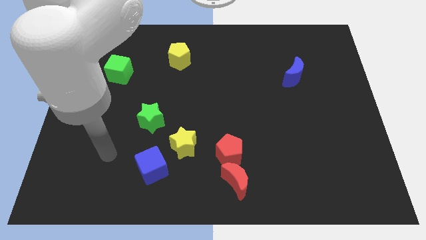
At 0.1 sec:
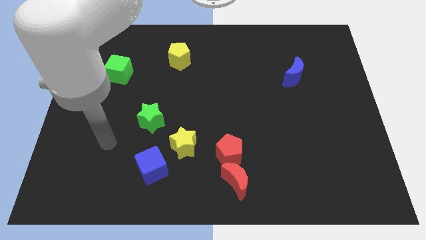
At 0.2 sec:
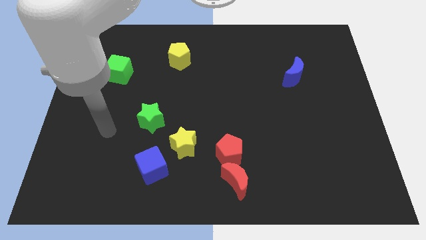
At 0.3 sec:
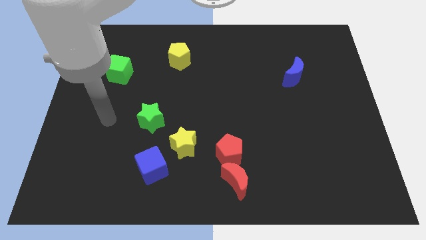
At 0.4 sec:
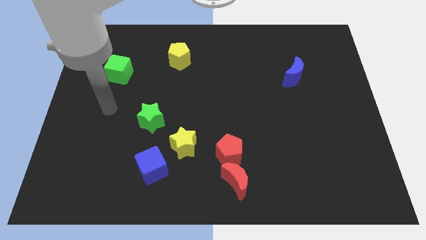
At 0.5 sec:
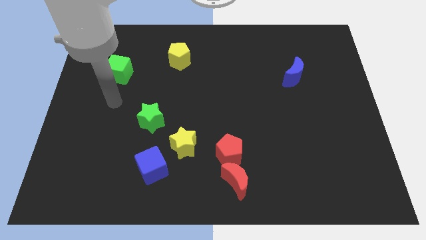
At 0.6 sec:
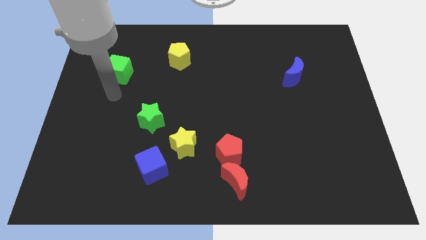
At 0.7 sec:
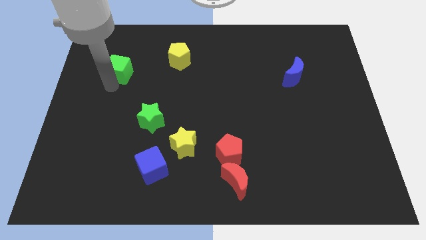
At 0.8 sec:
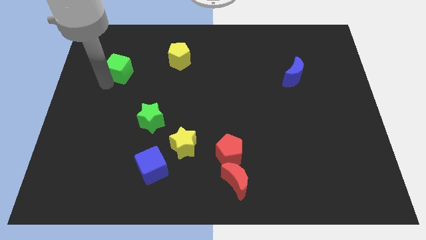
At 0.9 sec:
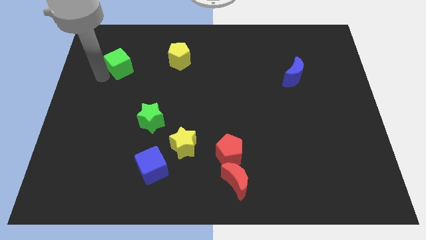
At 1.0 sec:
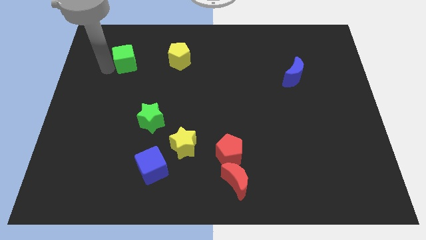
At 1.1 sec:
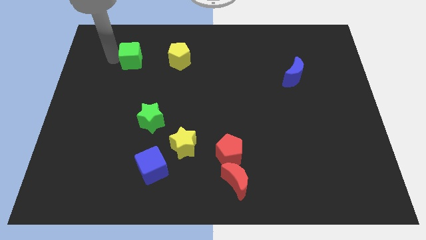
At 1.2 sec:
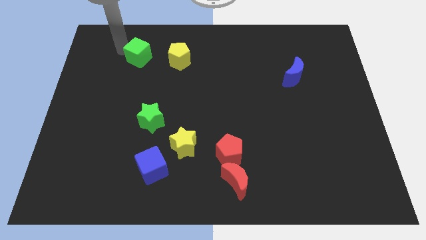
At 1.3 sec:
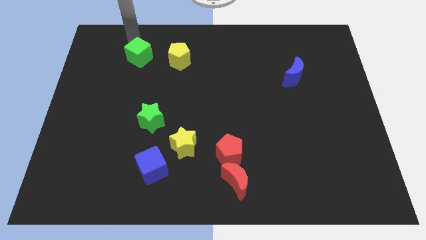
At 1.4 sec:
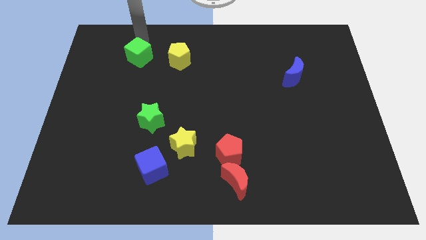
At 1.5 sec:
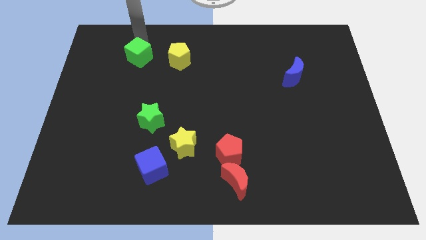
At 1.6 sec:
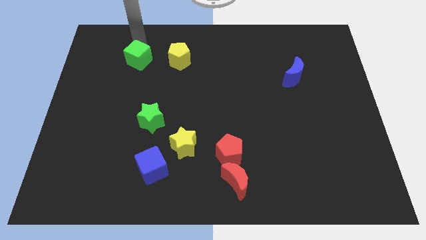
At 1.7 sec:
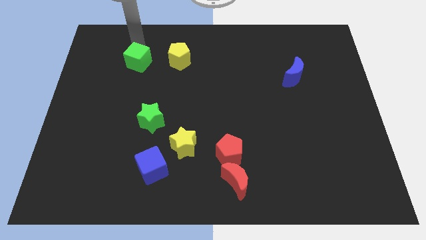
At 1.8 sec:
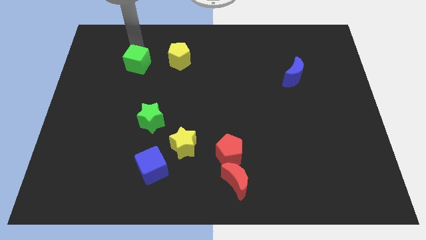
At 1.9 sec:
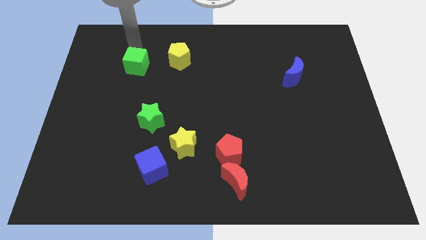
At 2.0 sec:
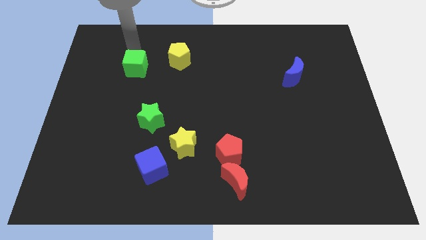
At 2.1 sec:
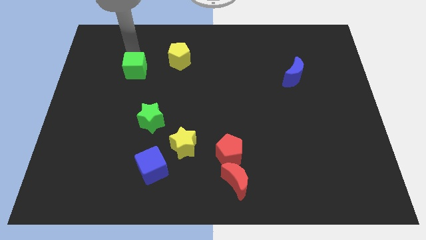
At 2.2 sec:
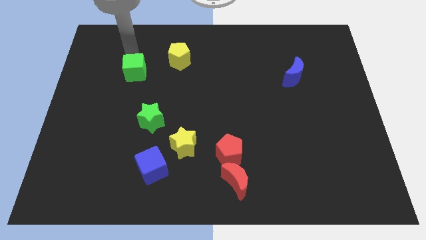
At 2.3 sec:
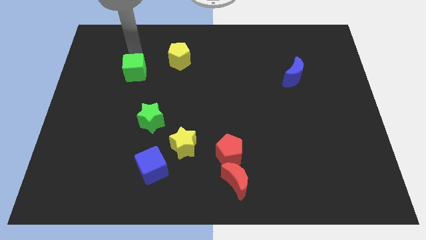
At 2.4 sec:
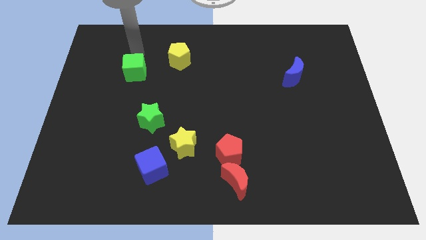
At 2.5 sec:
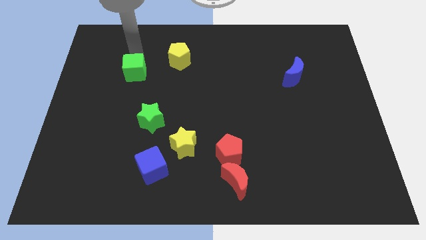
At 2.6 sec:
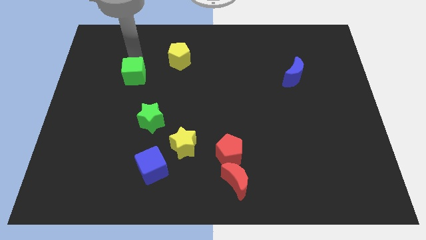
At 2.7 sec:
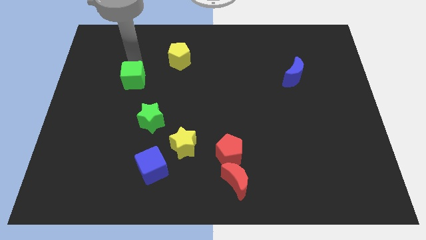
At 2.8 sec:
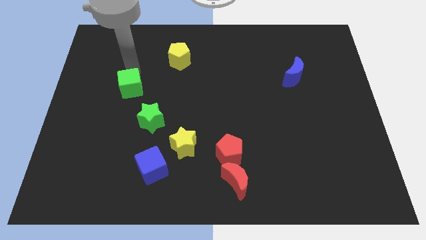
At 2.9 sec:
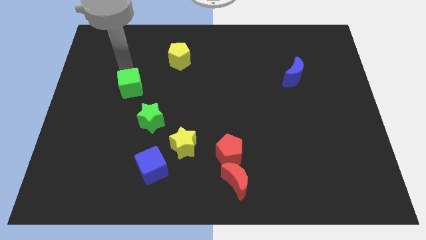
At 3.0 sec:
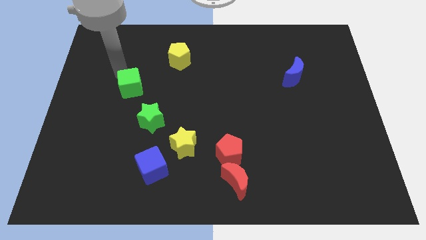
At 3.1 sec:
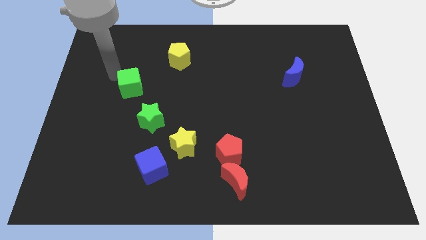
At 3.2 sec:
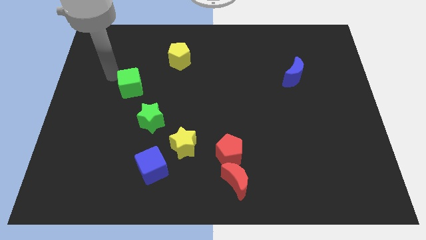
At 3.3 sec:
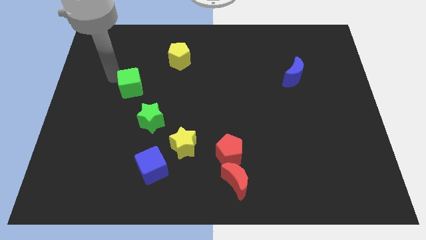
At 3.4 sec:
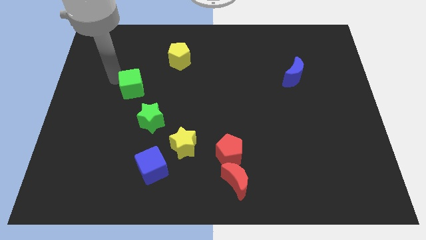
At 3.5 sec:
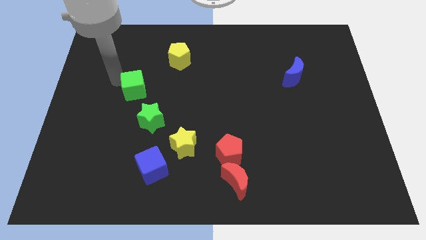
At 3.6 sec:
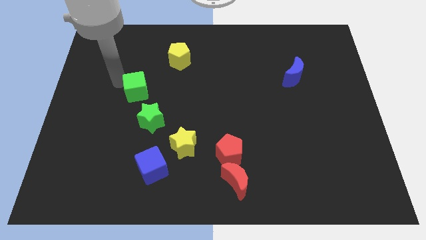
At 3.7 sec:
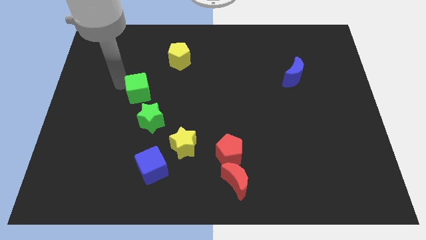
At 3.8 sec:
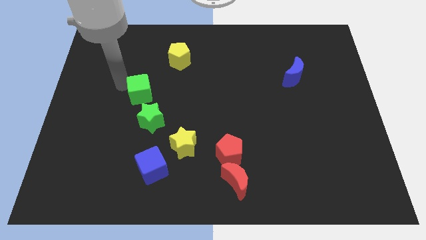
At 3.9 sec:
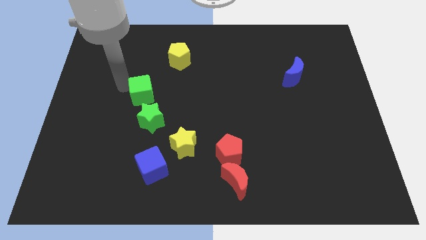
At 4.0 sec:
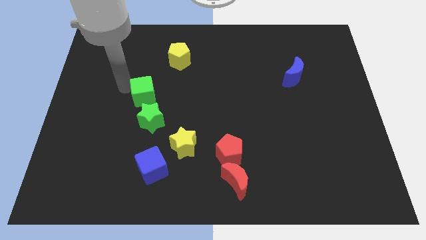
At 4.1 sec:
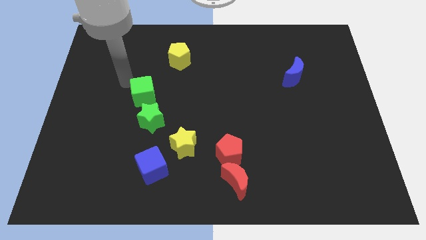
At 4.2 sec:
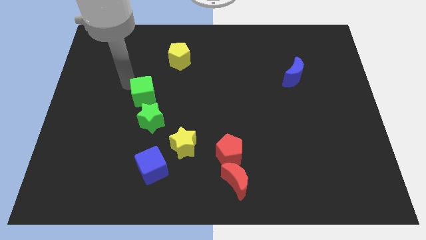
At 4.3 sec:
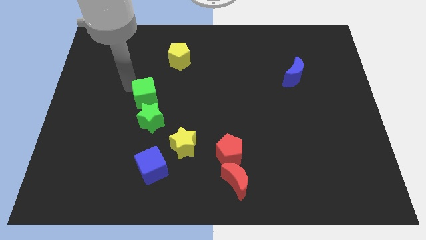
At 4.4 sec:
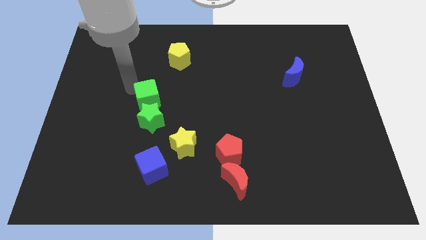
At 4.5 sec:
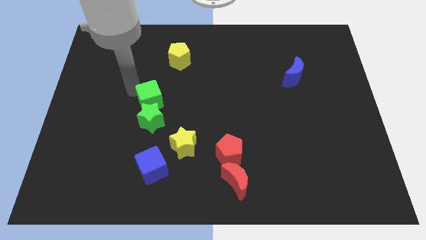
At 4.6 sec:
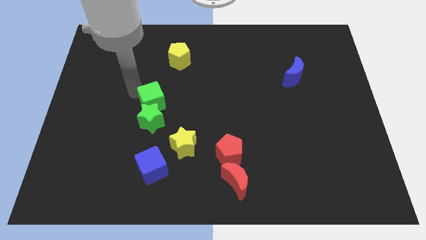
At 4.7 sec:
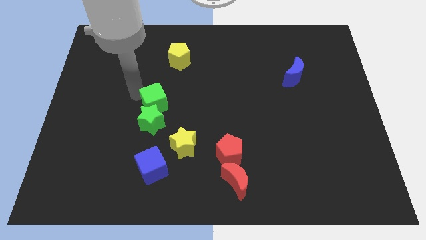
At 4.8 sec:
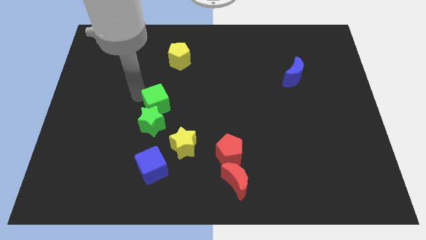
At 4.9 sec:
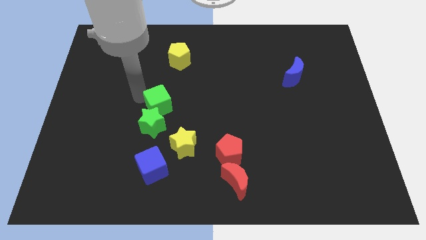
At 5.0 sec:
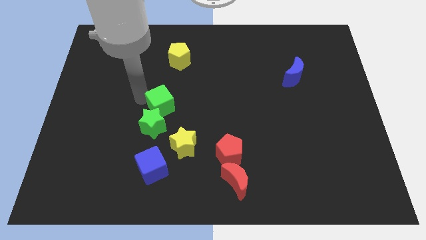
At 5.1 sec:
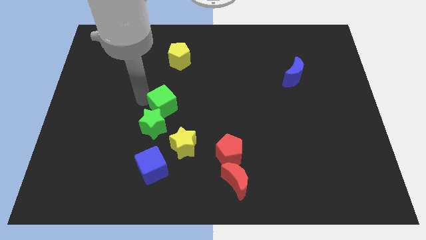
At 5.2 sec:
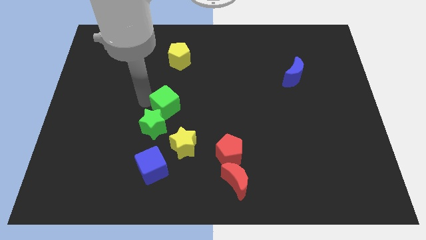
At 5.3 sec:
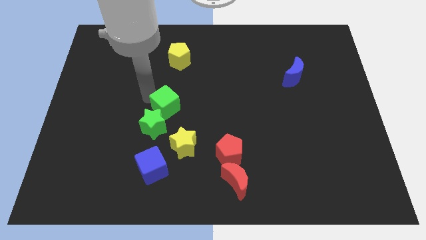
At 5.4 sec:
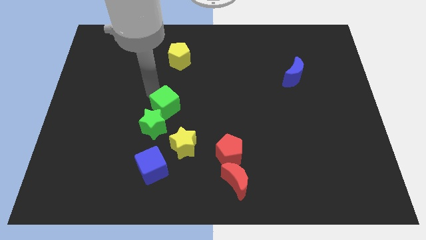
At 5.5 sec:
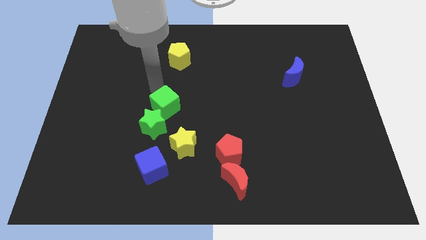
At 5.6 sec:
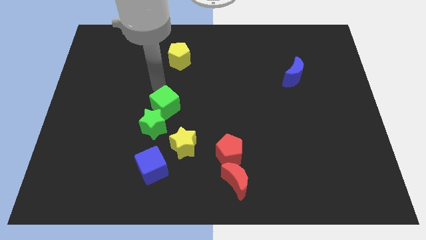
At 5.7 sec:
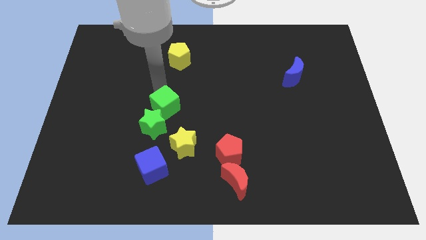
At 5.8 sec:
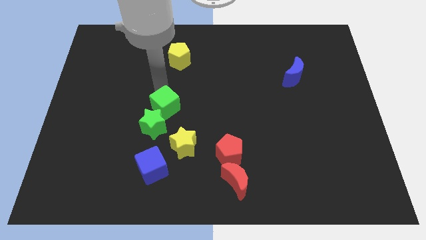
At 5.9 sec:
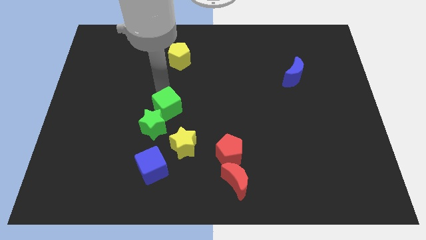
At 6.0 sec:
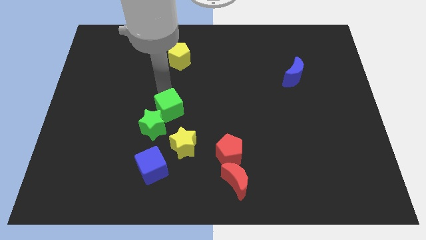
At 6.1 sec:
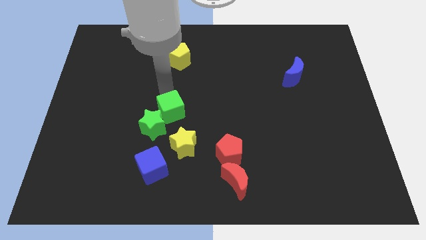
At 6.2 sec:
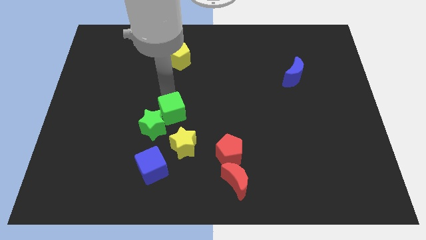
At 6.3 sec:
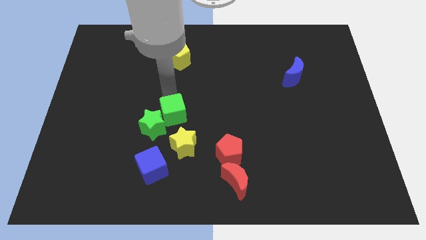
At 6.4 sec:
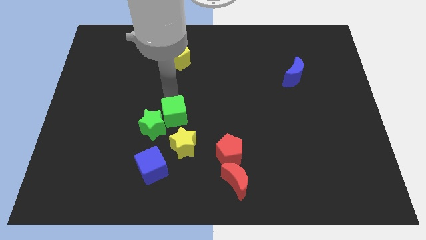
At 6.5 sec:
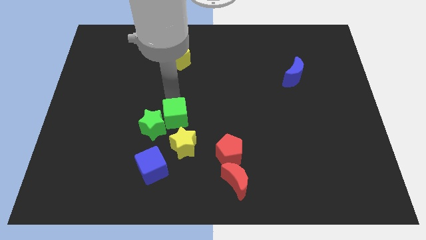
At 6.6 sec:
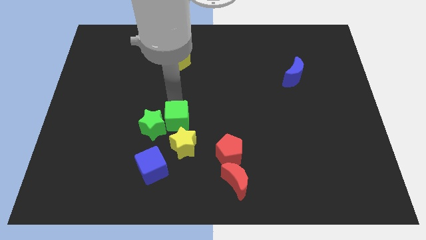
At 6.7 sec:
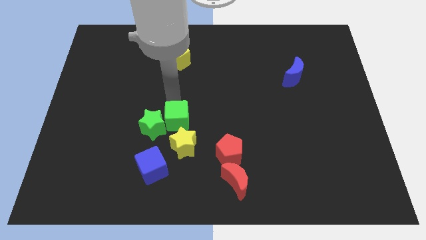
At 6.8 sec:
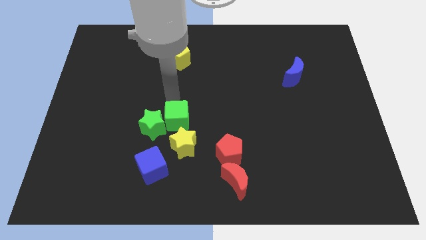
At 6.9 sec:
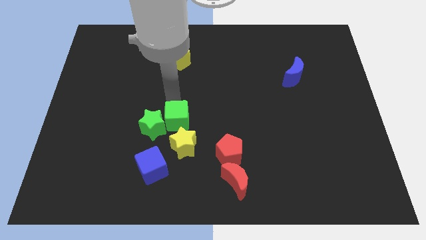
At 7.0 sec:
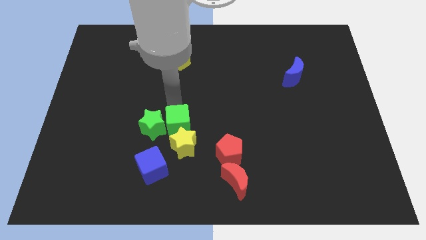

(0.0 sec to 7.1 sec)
push the green cube next to the yellow star
